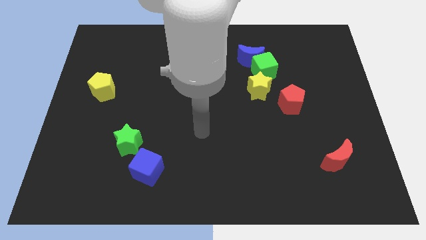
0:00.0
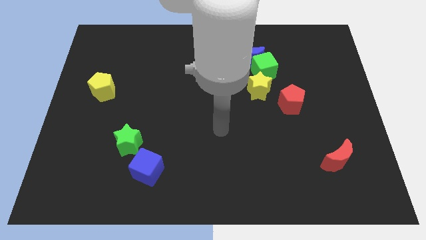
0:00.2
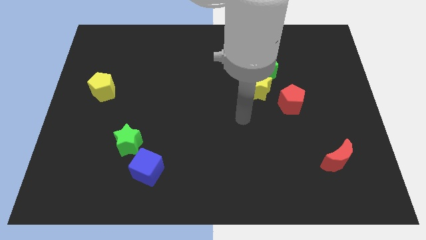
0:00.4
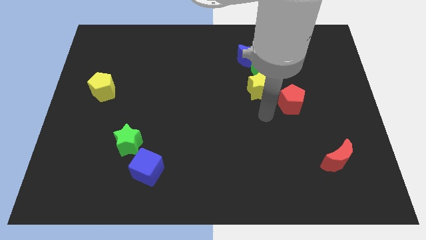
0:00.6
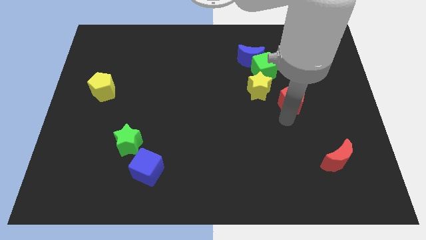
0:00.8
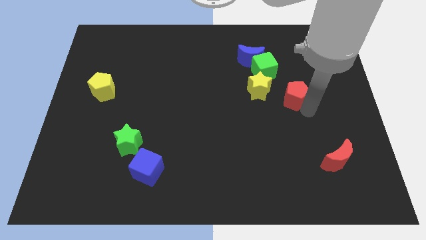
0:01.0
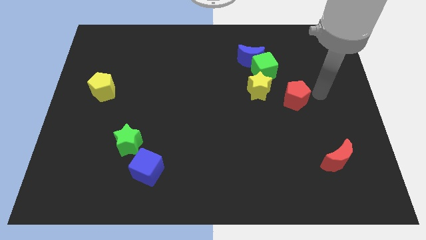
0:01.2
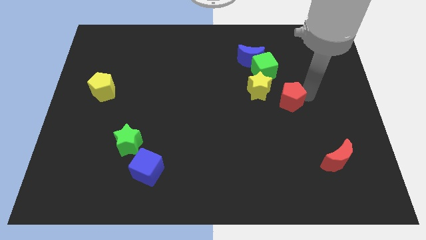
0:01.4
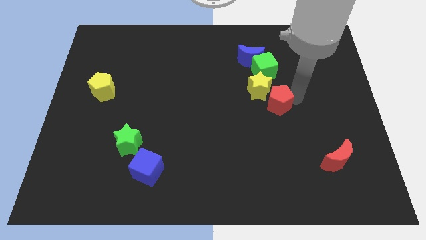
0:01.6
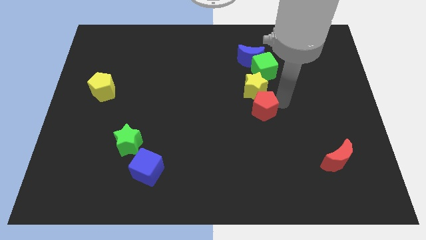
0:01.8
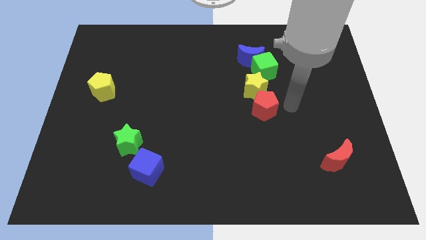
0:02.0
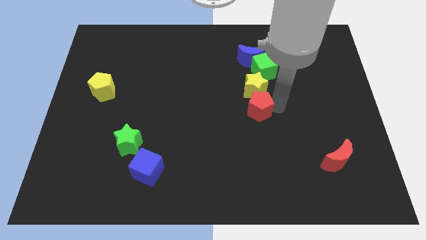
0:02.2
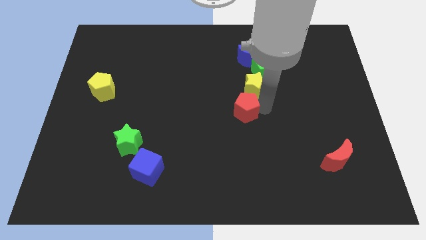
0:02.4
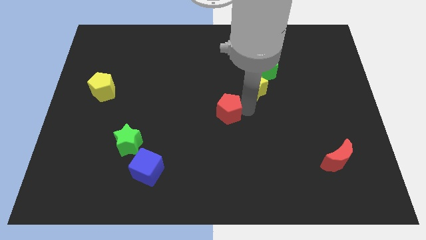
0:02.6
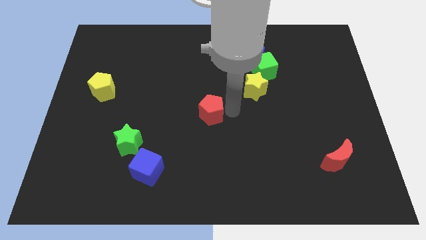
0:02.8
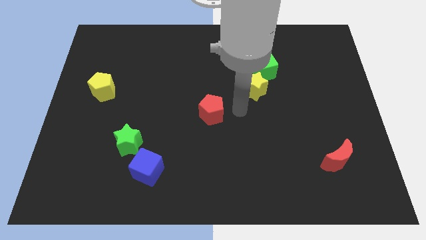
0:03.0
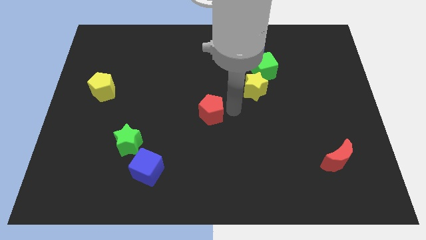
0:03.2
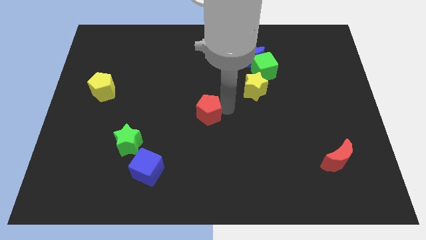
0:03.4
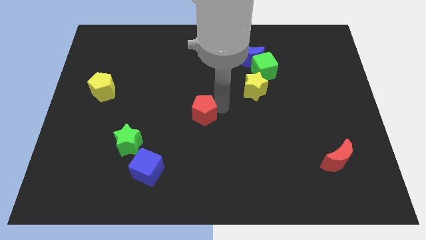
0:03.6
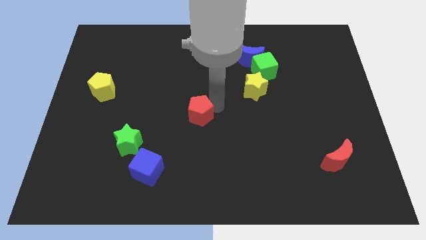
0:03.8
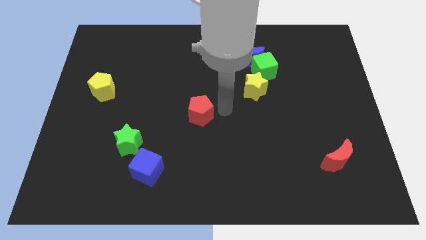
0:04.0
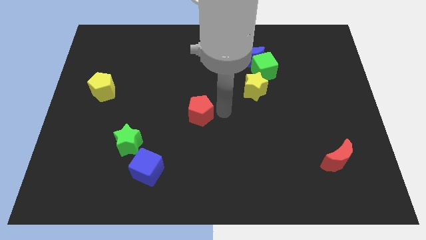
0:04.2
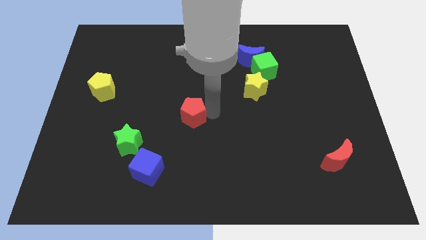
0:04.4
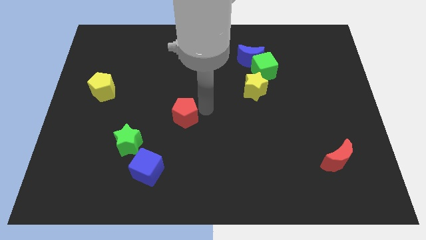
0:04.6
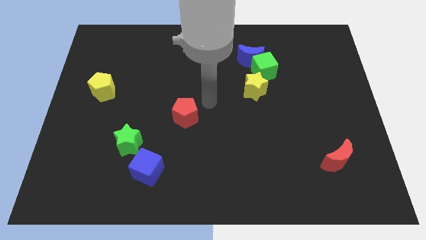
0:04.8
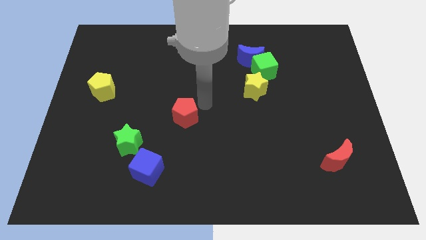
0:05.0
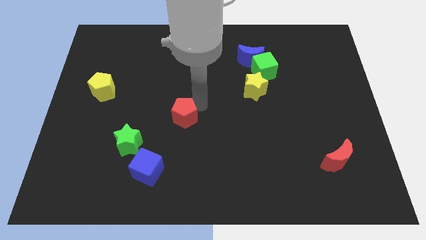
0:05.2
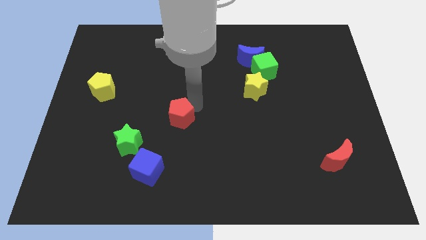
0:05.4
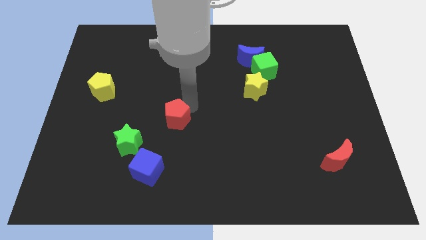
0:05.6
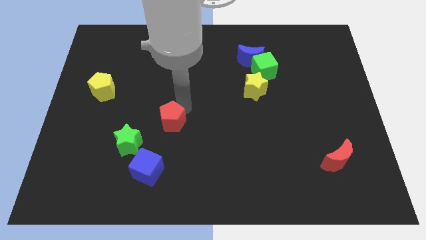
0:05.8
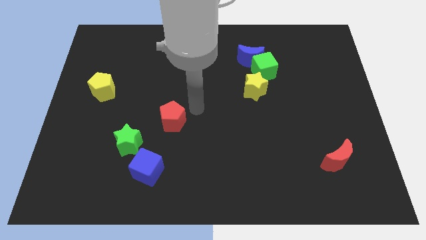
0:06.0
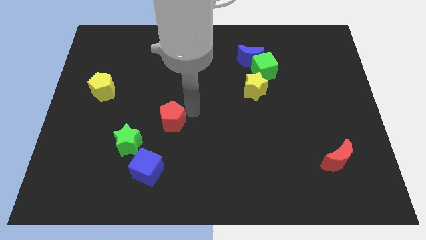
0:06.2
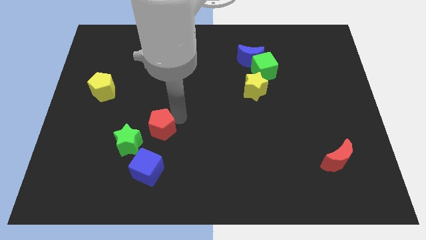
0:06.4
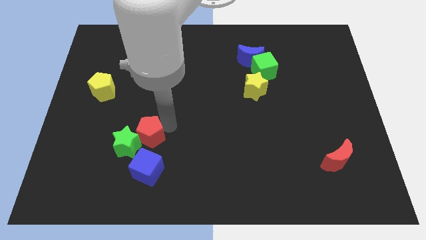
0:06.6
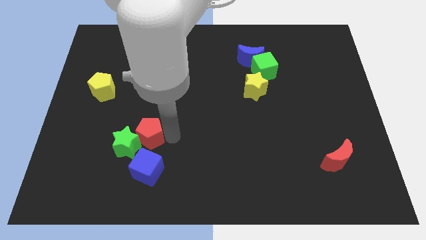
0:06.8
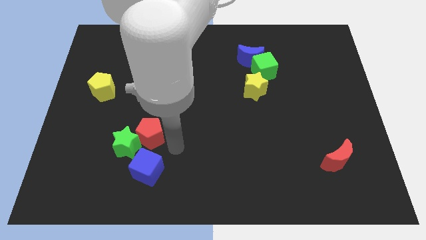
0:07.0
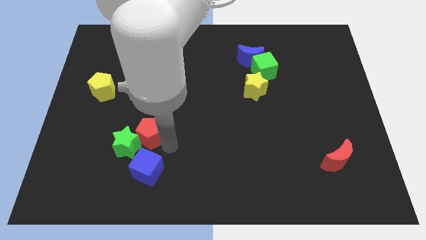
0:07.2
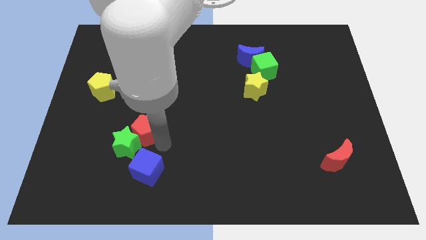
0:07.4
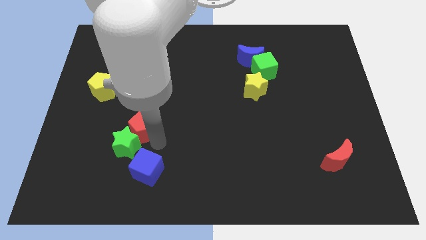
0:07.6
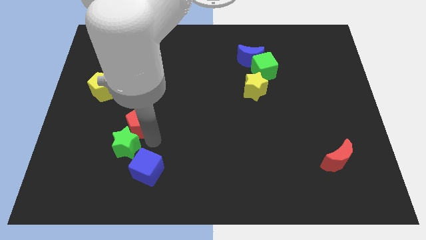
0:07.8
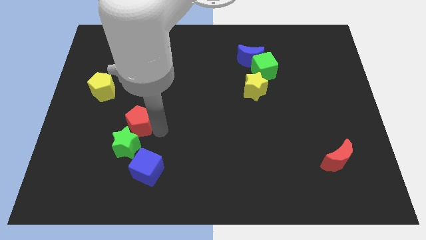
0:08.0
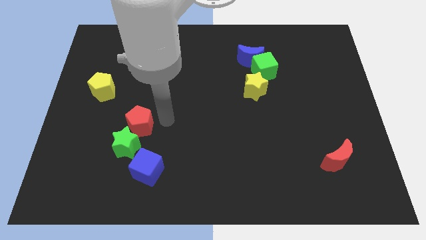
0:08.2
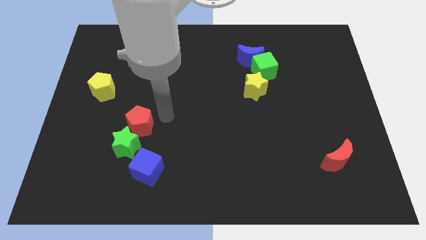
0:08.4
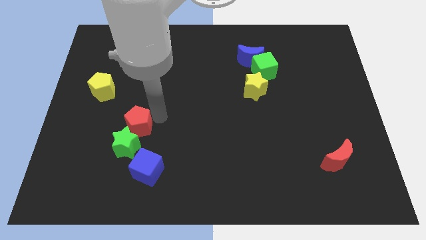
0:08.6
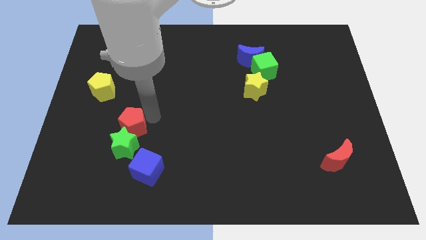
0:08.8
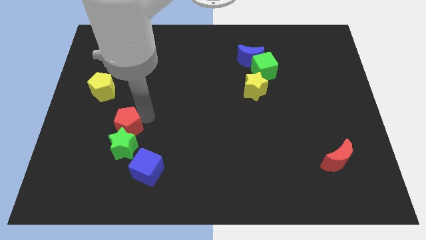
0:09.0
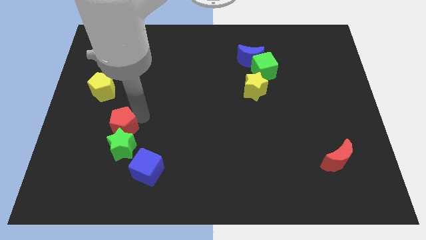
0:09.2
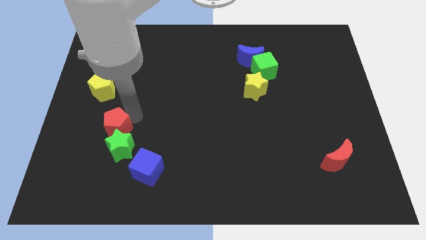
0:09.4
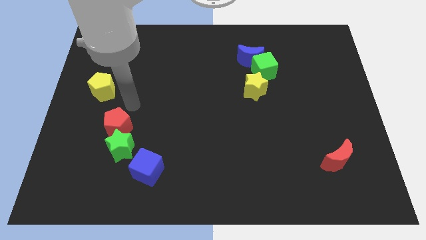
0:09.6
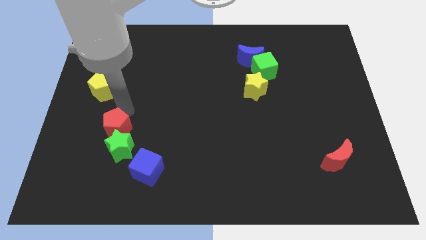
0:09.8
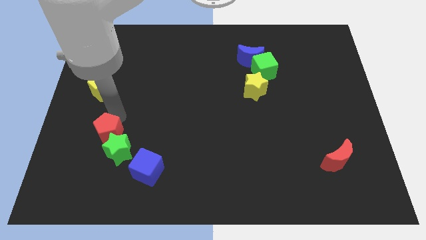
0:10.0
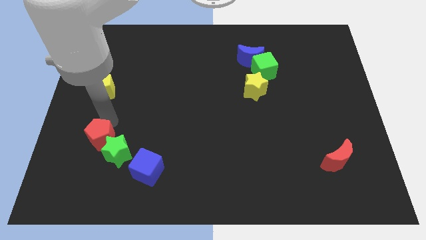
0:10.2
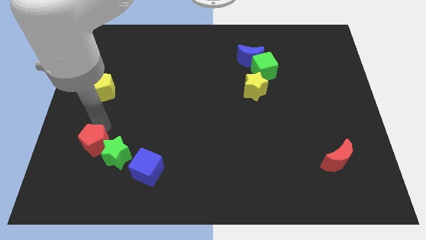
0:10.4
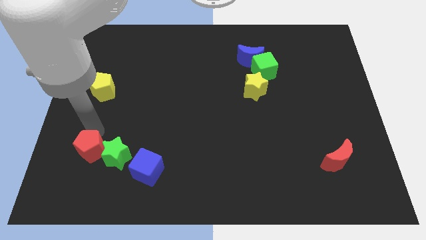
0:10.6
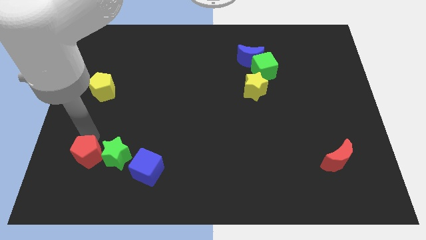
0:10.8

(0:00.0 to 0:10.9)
move the red pentagon diagonally down and to the left of the green star

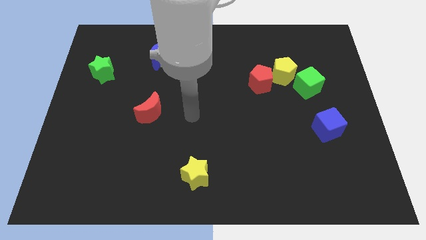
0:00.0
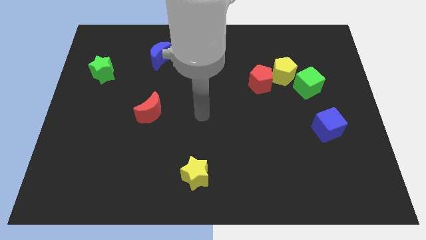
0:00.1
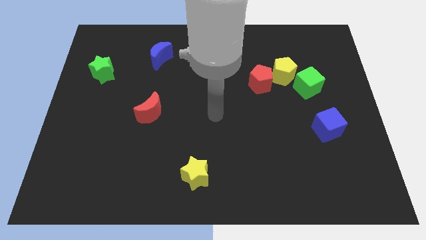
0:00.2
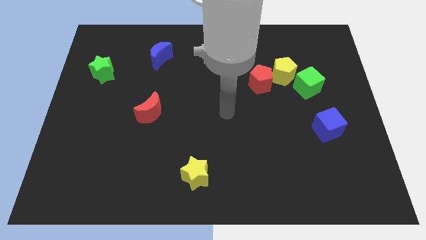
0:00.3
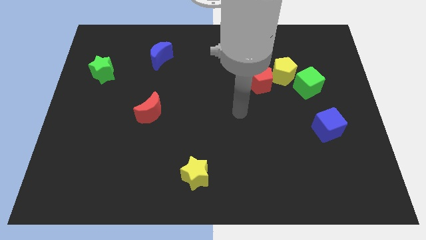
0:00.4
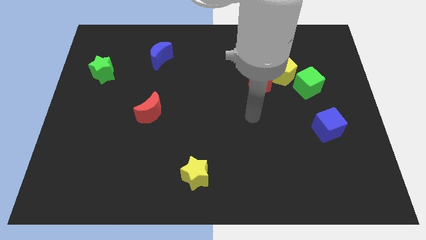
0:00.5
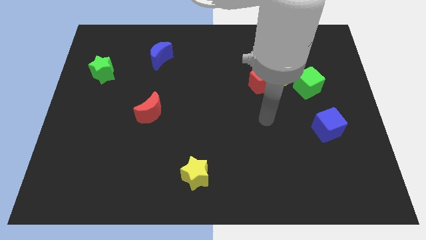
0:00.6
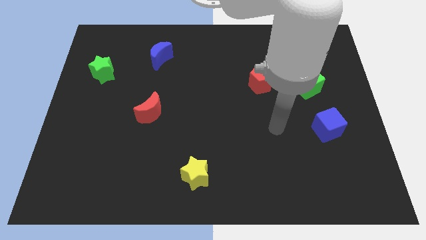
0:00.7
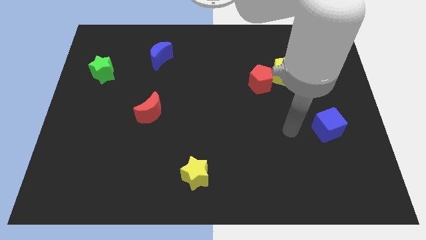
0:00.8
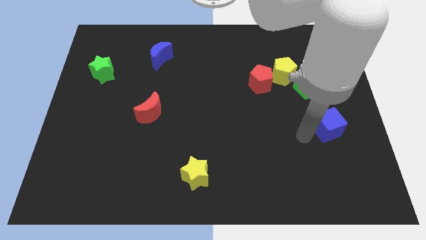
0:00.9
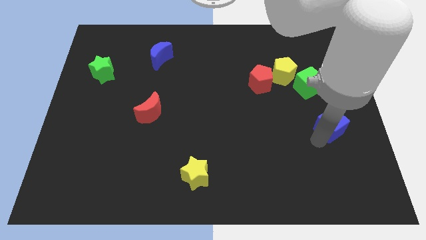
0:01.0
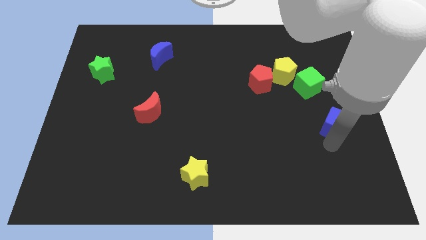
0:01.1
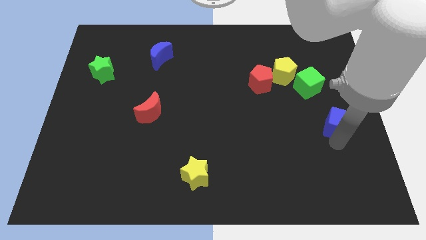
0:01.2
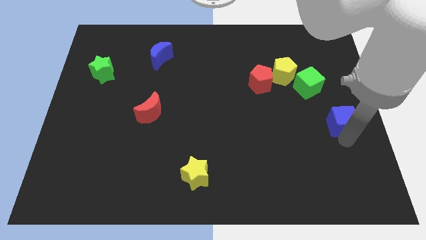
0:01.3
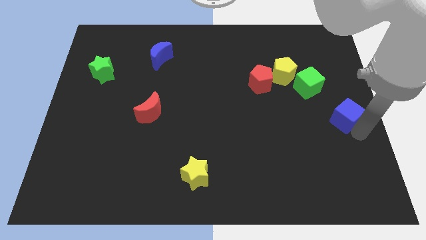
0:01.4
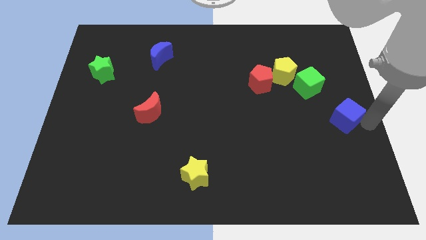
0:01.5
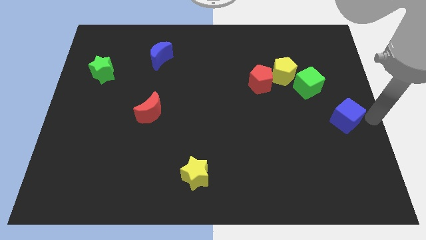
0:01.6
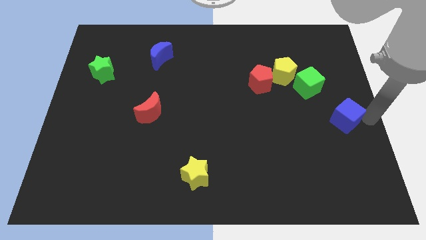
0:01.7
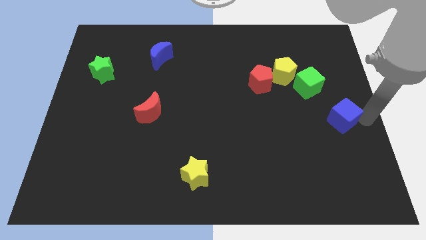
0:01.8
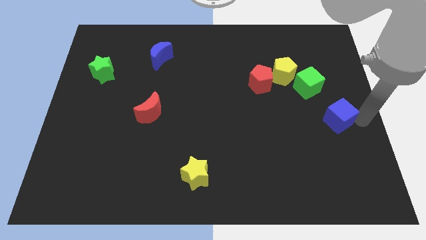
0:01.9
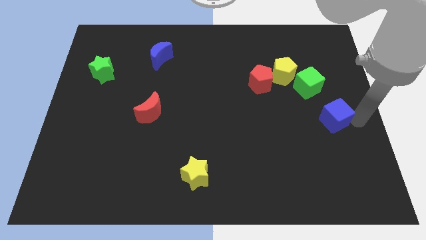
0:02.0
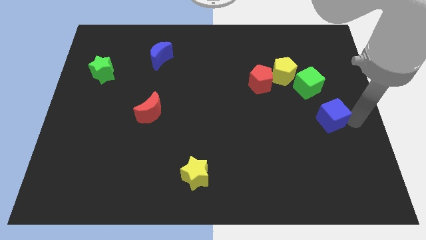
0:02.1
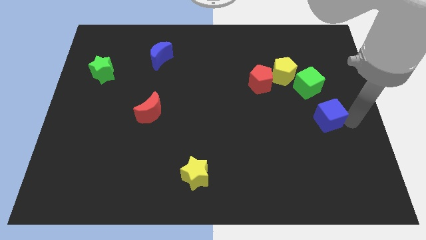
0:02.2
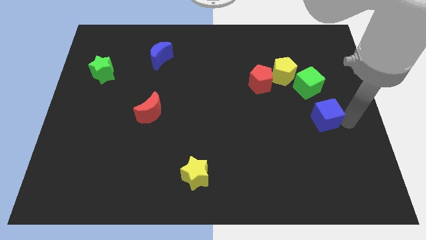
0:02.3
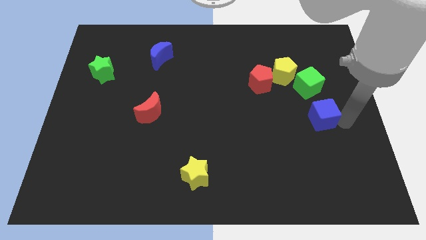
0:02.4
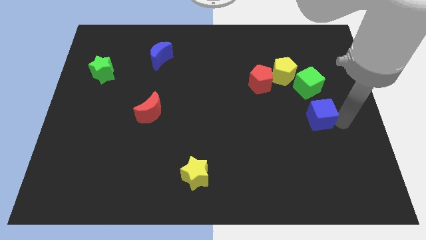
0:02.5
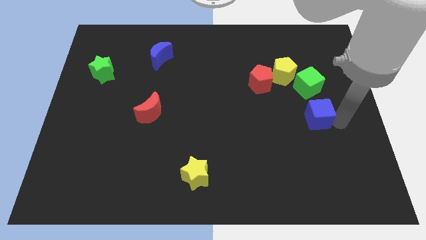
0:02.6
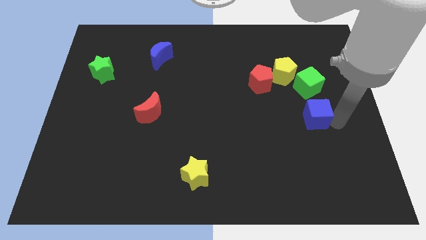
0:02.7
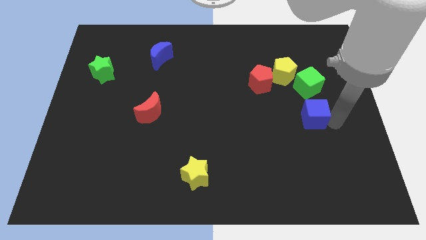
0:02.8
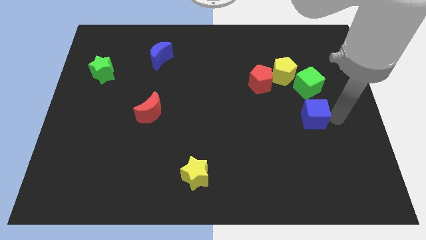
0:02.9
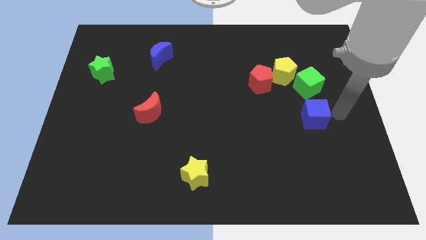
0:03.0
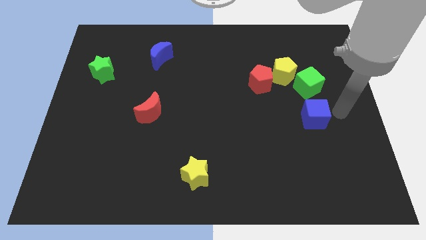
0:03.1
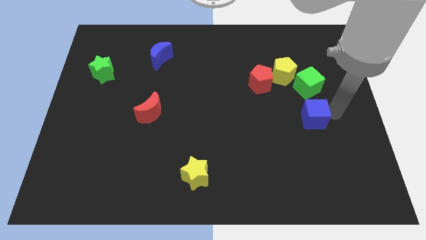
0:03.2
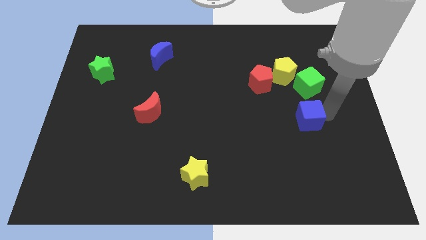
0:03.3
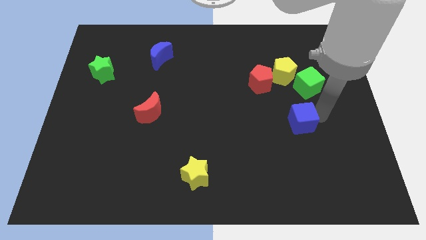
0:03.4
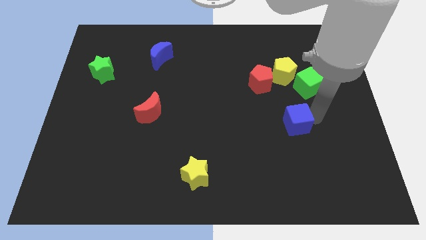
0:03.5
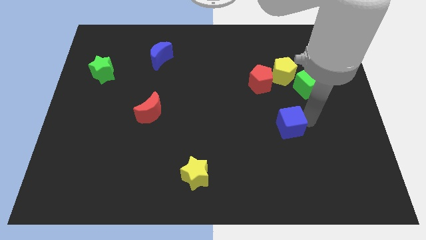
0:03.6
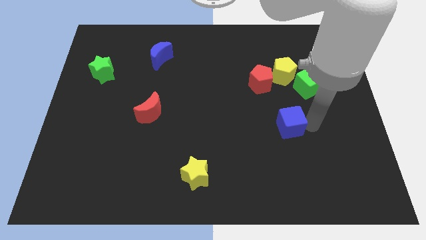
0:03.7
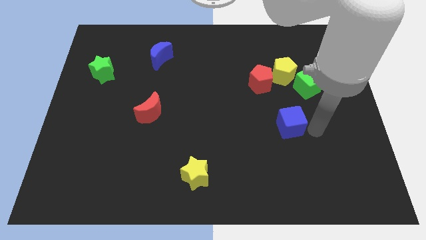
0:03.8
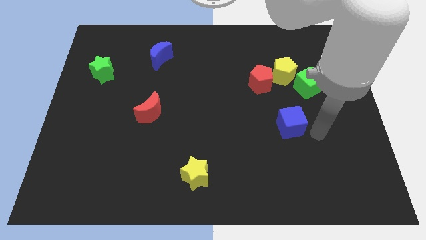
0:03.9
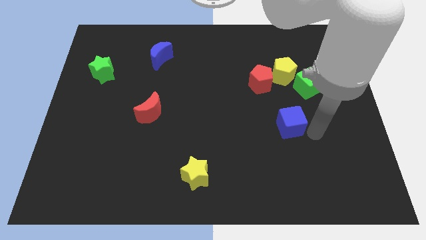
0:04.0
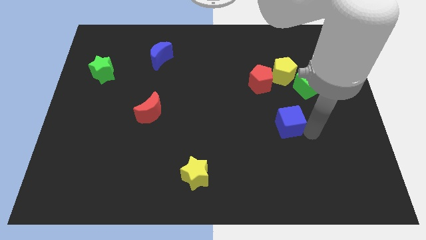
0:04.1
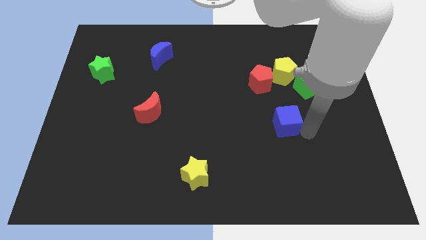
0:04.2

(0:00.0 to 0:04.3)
slide the blue cube to the bottom of the red pentagon
